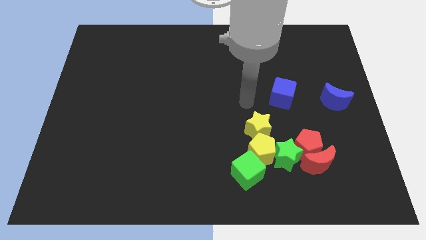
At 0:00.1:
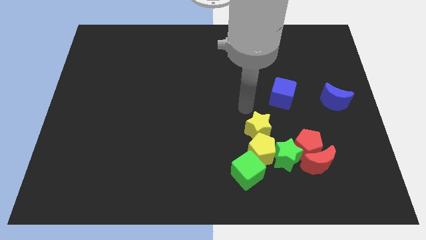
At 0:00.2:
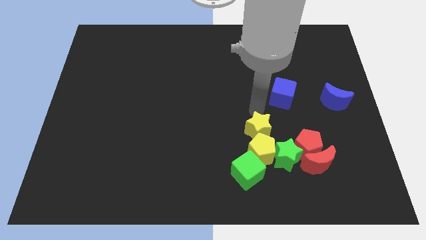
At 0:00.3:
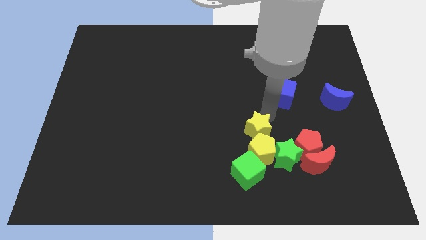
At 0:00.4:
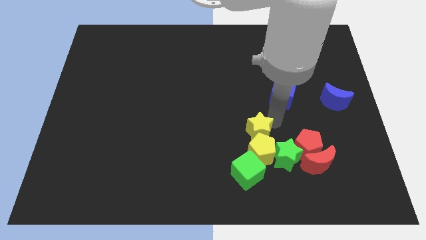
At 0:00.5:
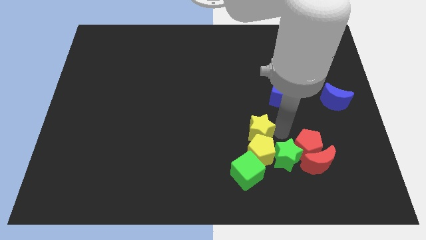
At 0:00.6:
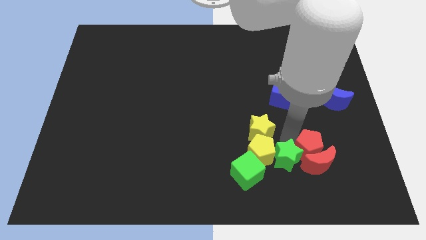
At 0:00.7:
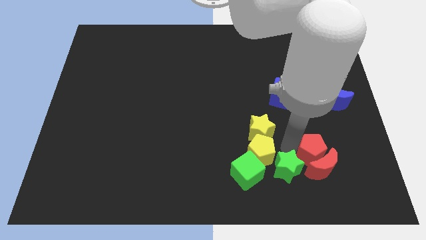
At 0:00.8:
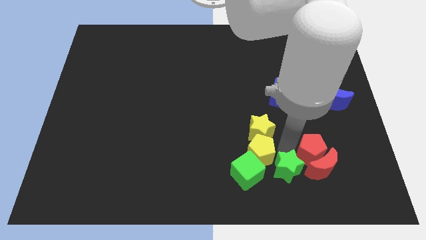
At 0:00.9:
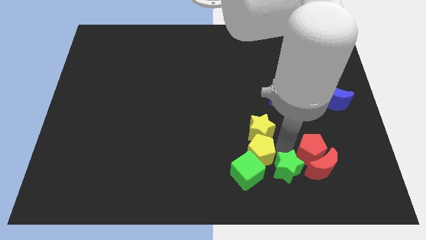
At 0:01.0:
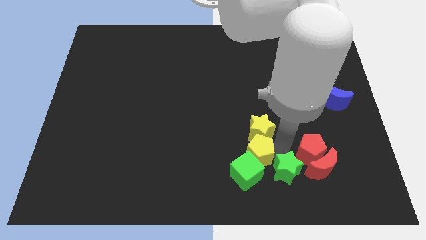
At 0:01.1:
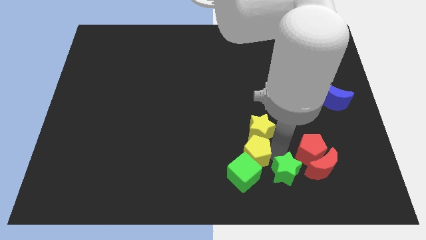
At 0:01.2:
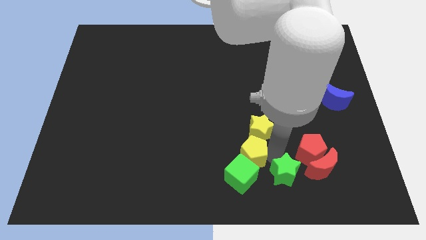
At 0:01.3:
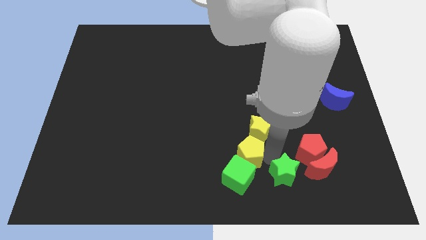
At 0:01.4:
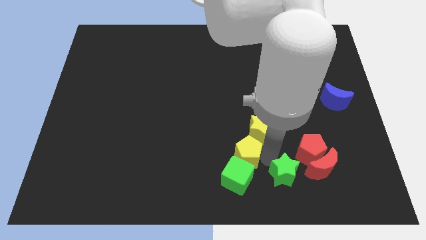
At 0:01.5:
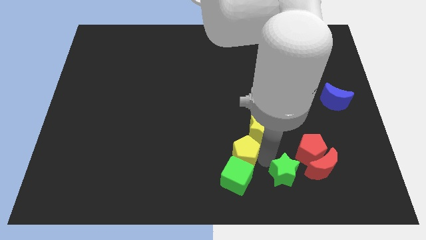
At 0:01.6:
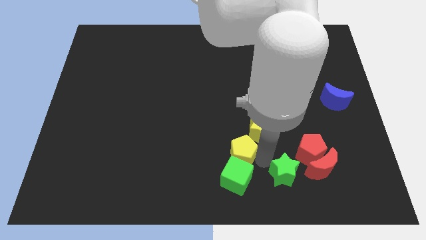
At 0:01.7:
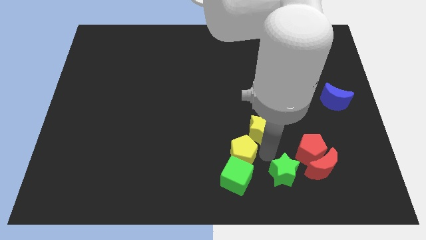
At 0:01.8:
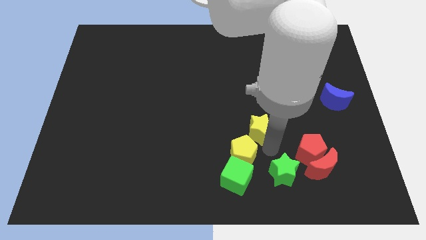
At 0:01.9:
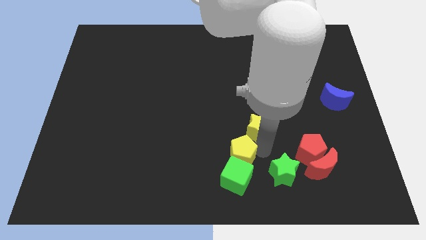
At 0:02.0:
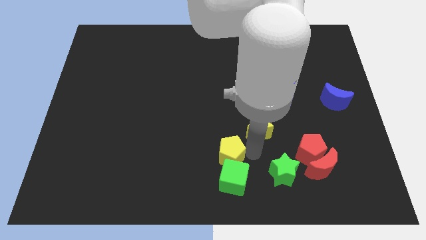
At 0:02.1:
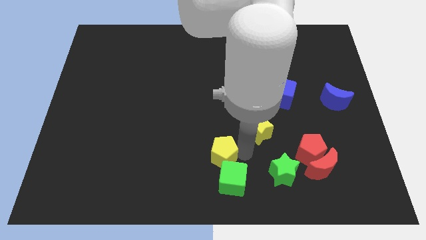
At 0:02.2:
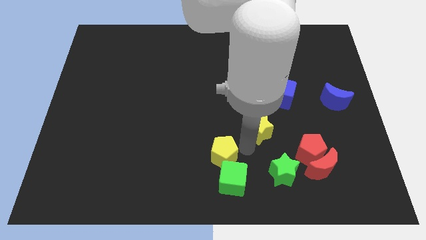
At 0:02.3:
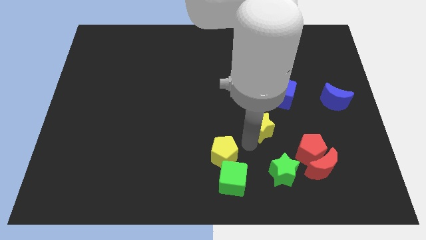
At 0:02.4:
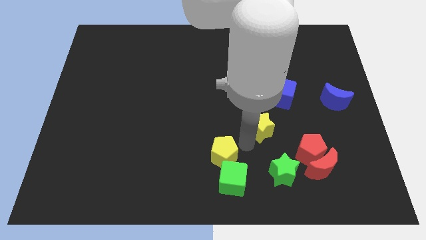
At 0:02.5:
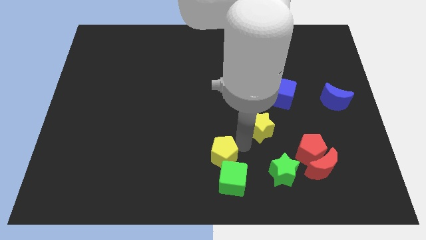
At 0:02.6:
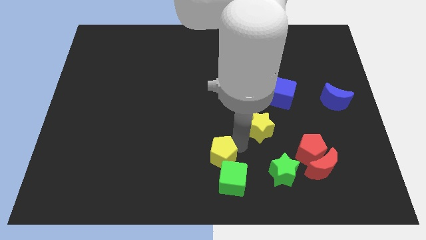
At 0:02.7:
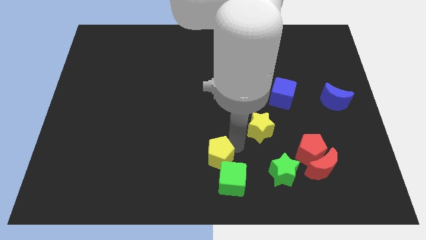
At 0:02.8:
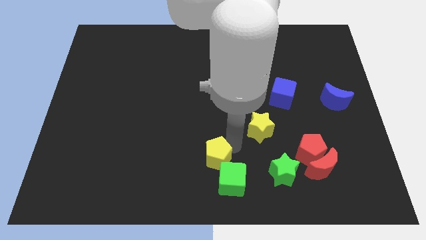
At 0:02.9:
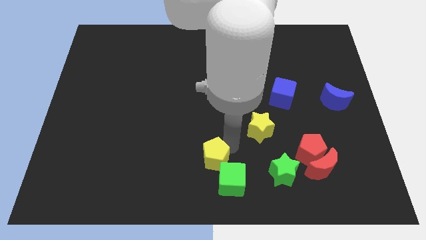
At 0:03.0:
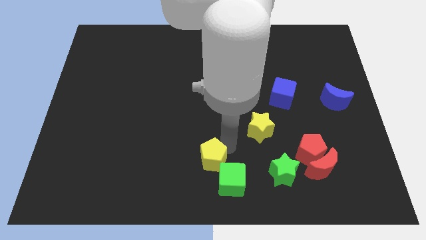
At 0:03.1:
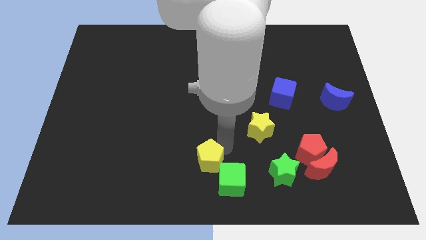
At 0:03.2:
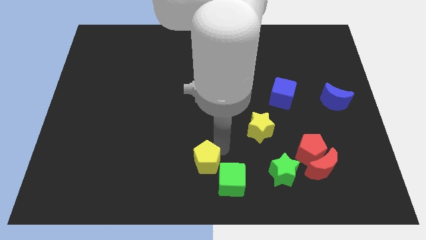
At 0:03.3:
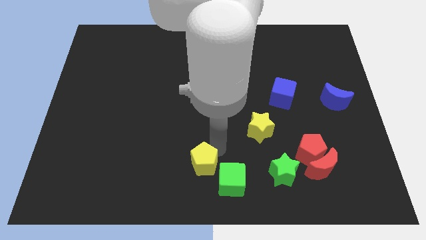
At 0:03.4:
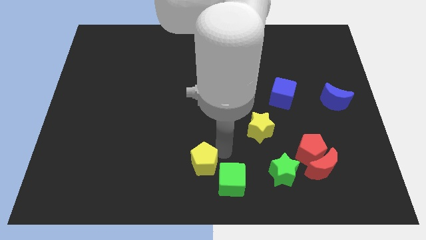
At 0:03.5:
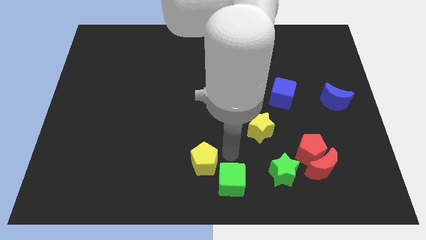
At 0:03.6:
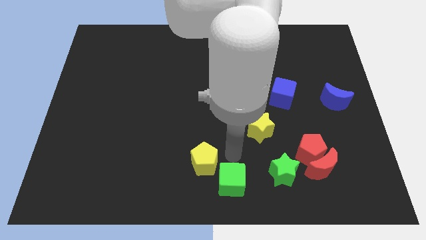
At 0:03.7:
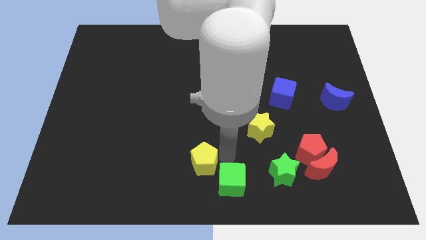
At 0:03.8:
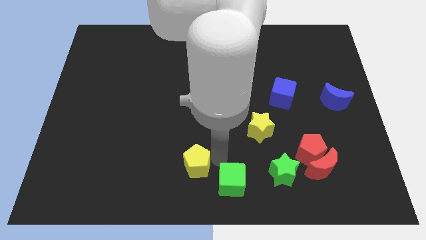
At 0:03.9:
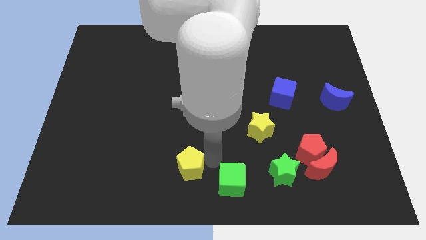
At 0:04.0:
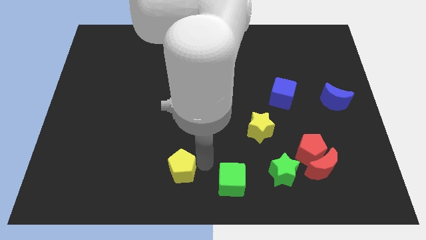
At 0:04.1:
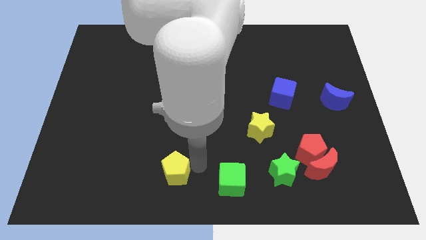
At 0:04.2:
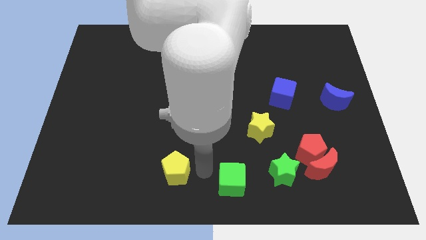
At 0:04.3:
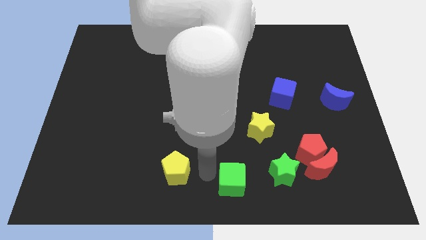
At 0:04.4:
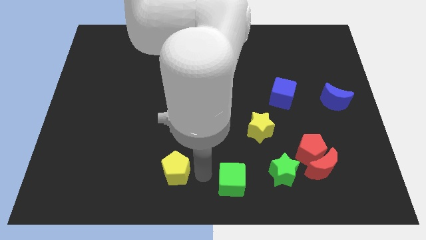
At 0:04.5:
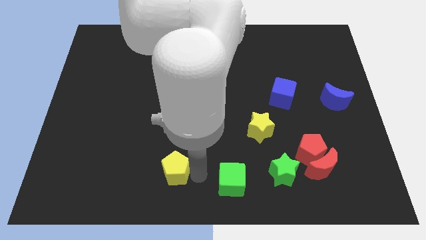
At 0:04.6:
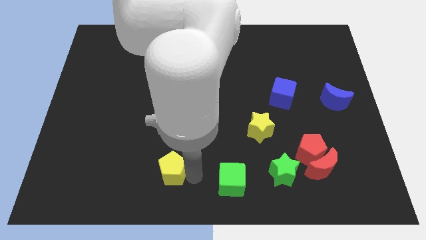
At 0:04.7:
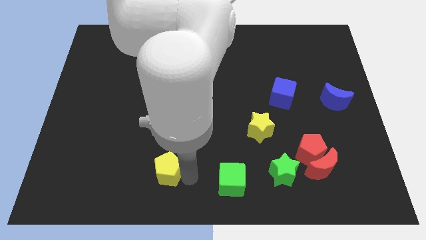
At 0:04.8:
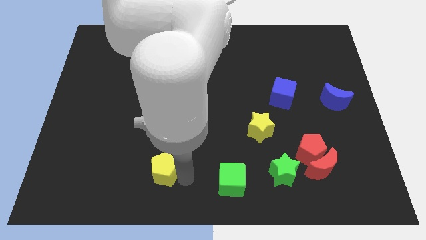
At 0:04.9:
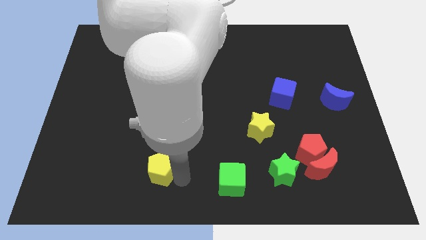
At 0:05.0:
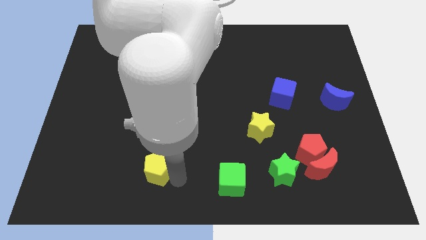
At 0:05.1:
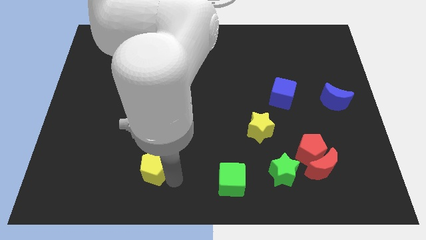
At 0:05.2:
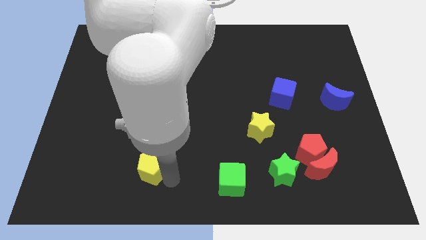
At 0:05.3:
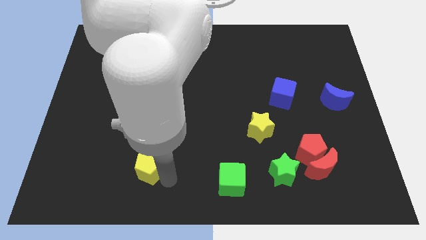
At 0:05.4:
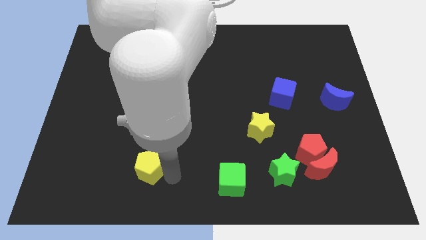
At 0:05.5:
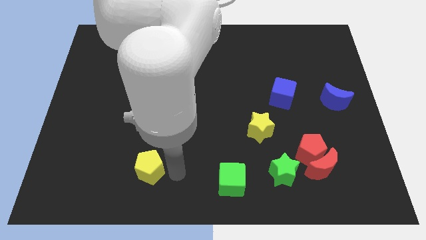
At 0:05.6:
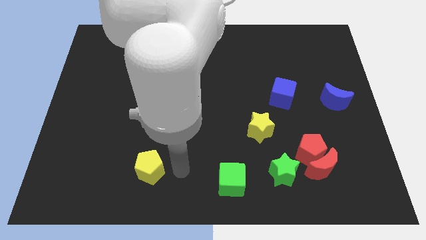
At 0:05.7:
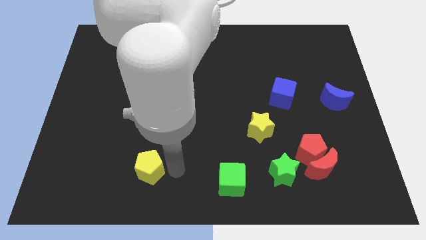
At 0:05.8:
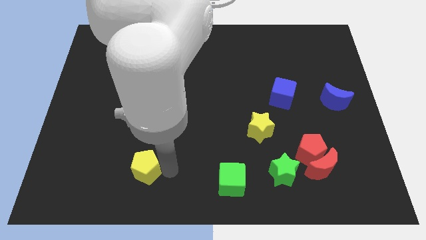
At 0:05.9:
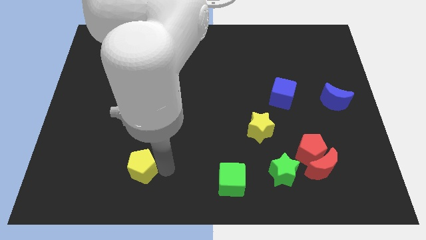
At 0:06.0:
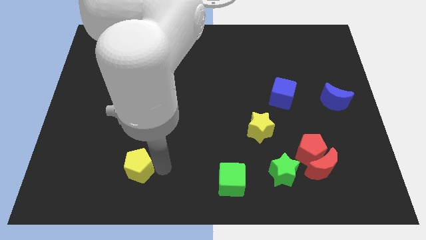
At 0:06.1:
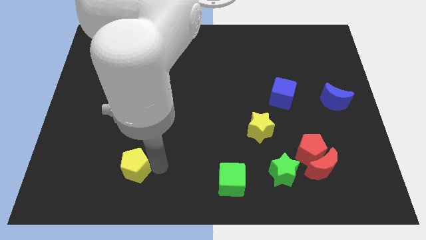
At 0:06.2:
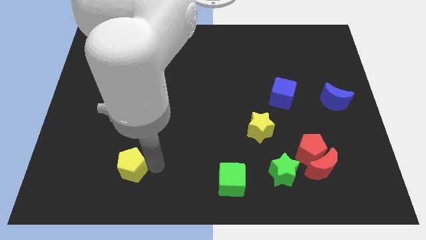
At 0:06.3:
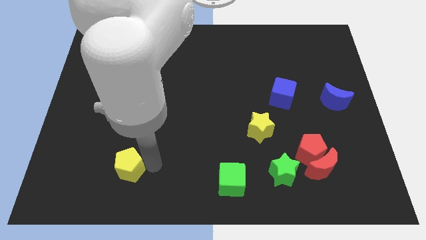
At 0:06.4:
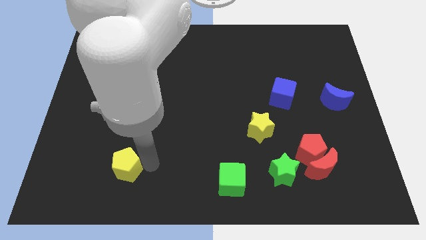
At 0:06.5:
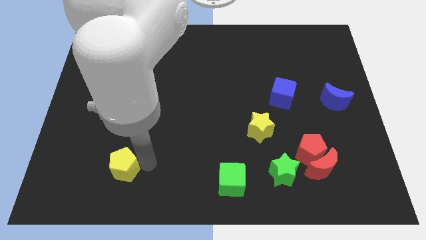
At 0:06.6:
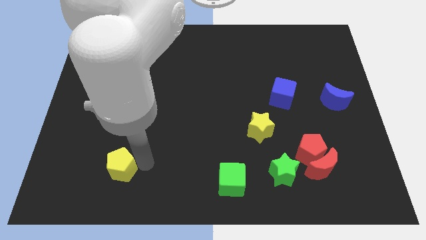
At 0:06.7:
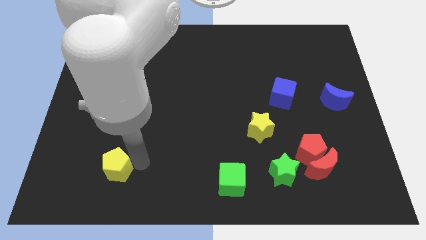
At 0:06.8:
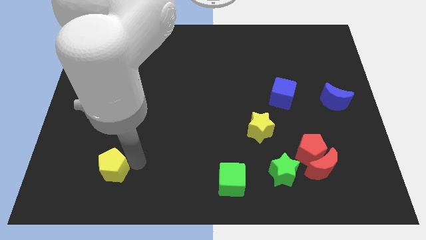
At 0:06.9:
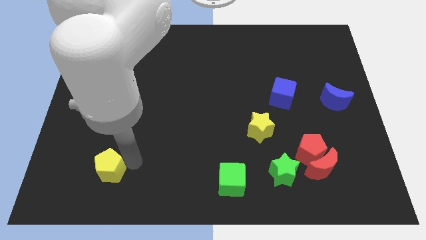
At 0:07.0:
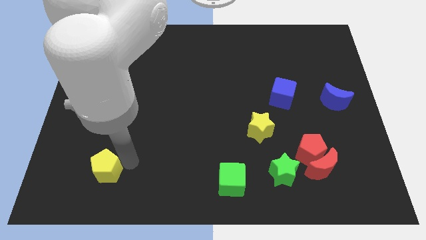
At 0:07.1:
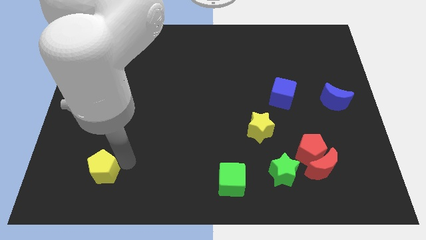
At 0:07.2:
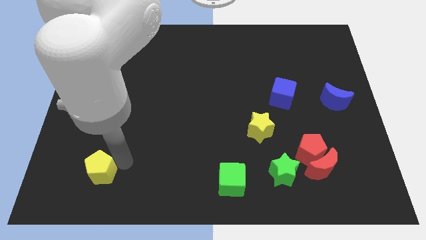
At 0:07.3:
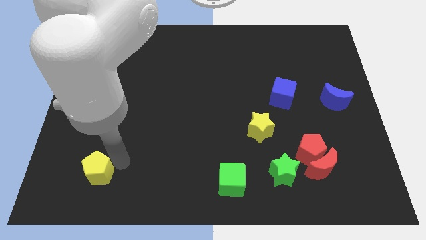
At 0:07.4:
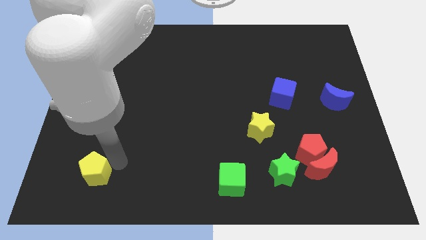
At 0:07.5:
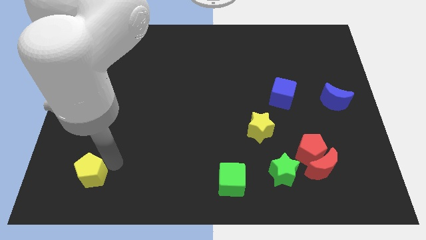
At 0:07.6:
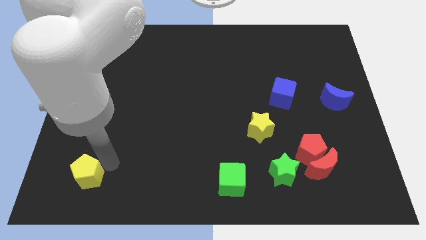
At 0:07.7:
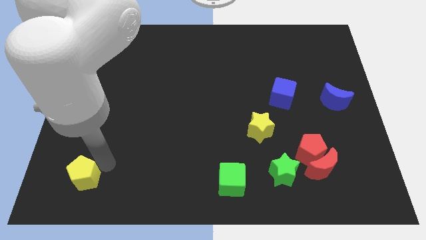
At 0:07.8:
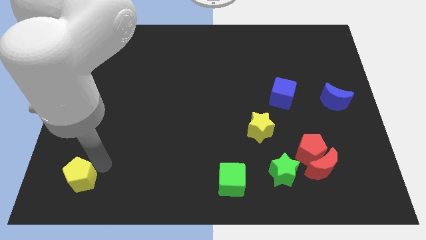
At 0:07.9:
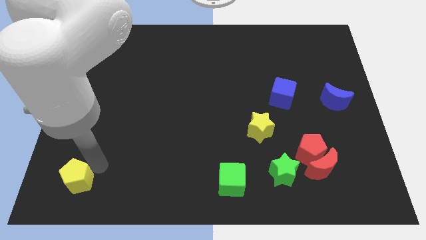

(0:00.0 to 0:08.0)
put the yellow pentagon to the bottom left corner
